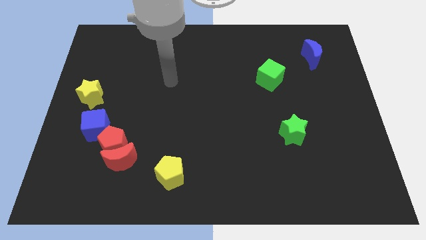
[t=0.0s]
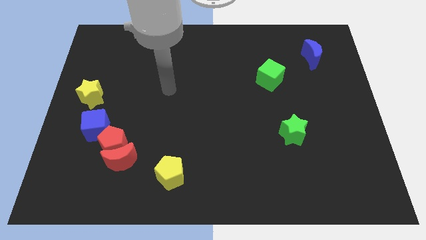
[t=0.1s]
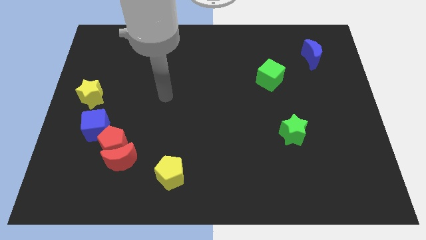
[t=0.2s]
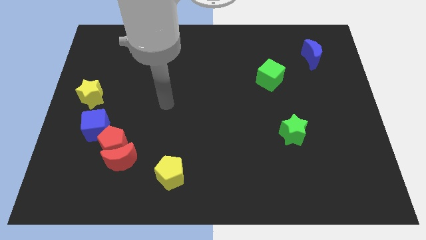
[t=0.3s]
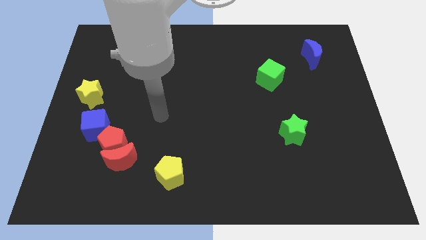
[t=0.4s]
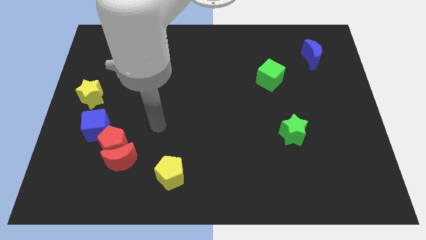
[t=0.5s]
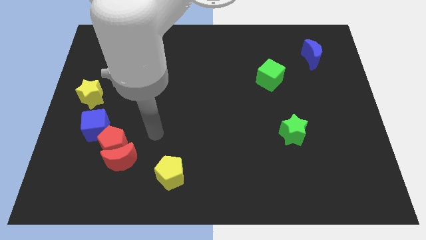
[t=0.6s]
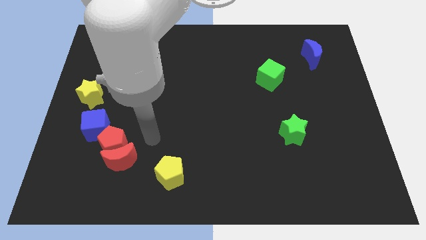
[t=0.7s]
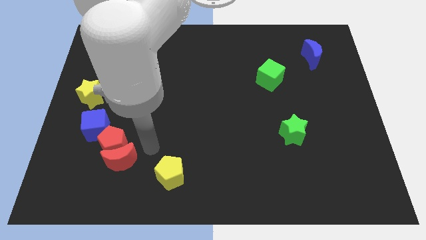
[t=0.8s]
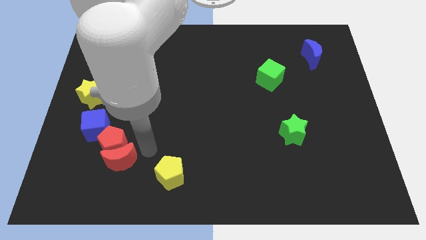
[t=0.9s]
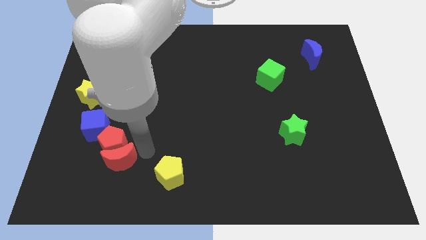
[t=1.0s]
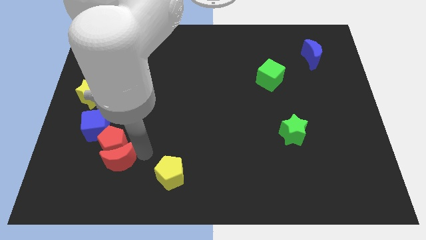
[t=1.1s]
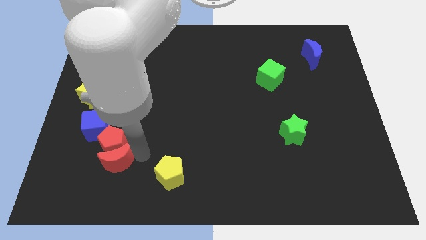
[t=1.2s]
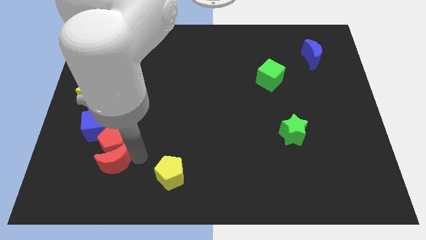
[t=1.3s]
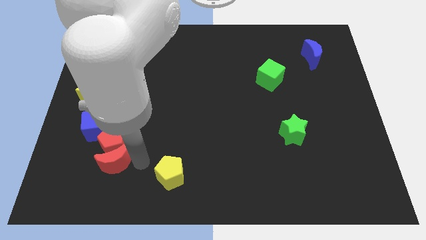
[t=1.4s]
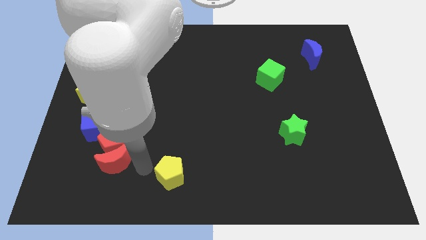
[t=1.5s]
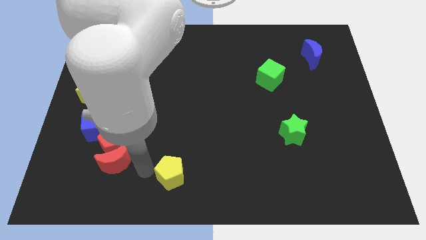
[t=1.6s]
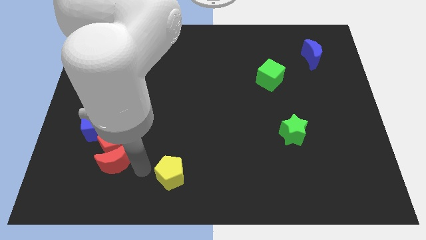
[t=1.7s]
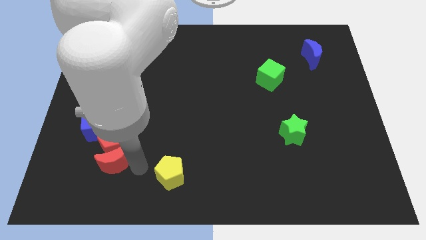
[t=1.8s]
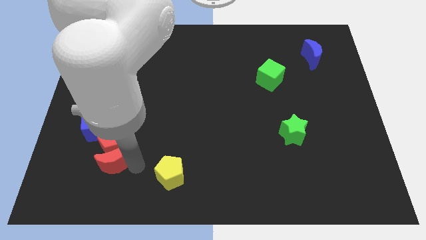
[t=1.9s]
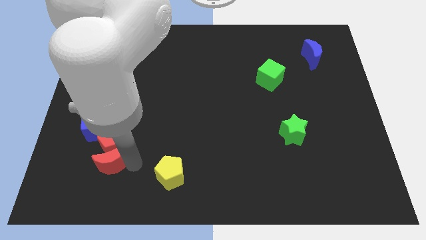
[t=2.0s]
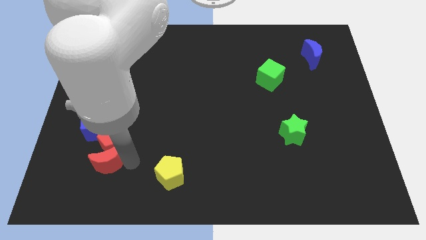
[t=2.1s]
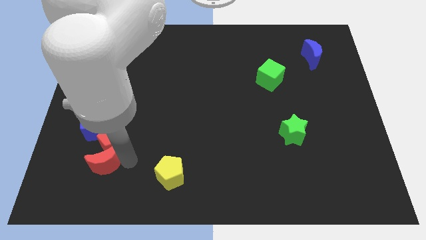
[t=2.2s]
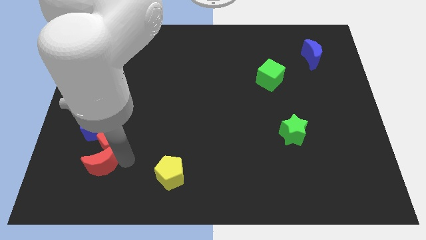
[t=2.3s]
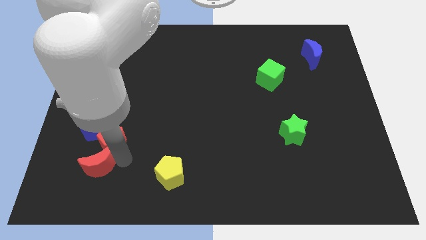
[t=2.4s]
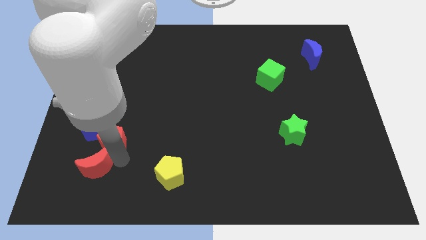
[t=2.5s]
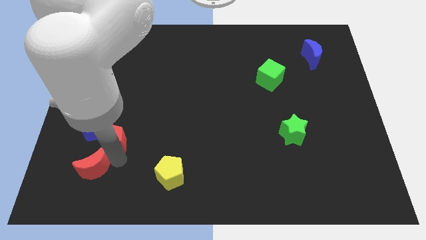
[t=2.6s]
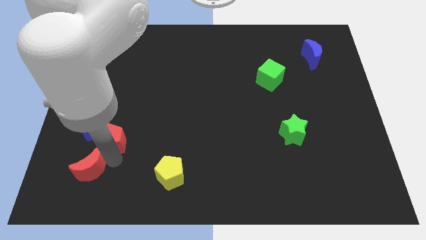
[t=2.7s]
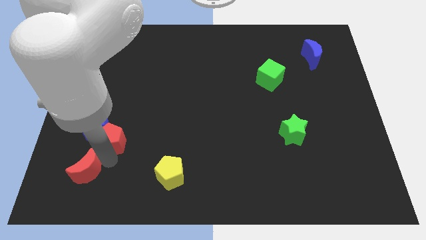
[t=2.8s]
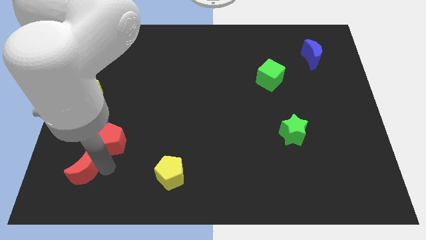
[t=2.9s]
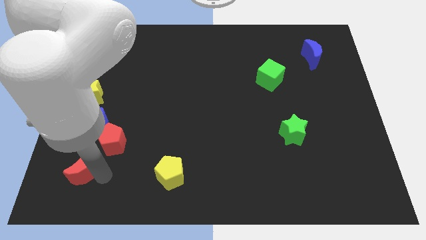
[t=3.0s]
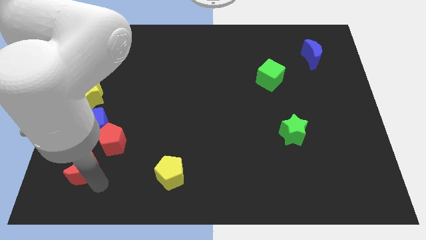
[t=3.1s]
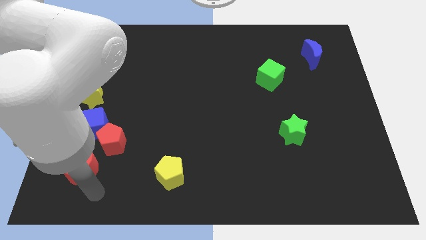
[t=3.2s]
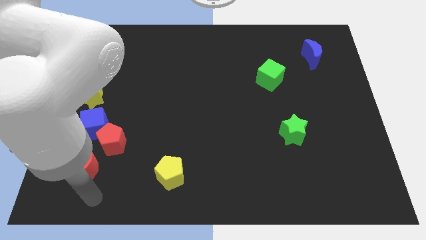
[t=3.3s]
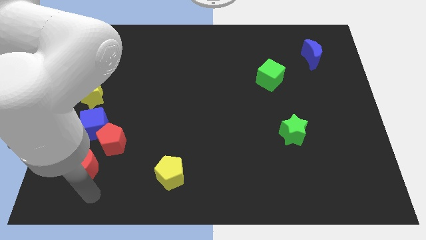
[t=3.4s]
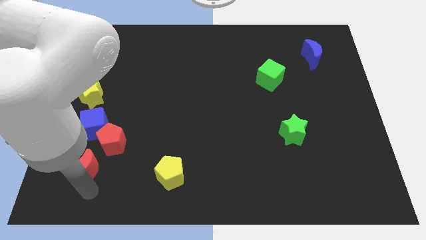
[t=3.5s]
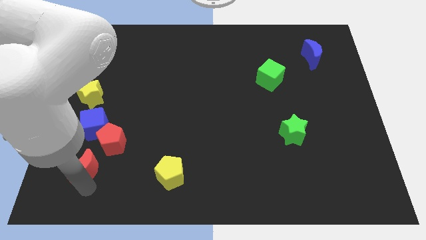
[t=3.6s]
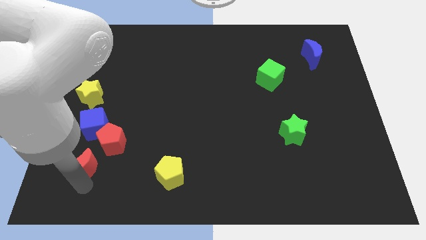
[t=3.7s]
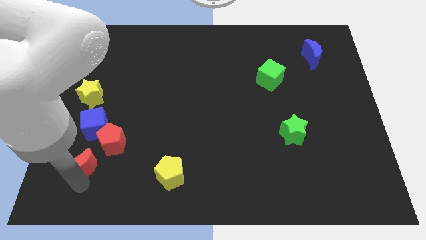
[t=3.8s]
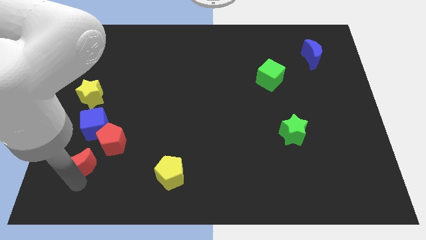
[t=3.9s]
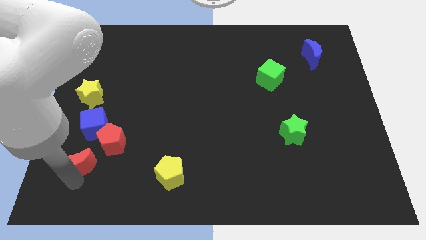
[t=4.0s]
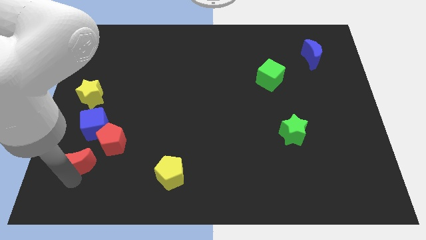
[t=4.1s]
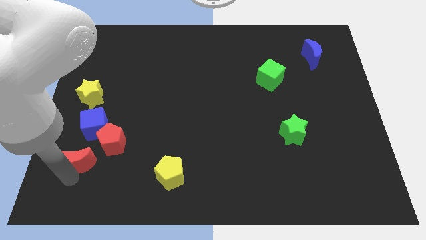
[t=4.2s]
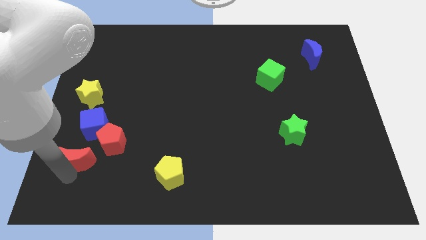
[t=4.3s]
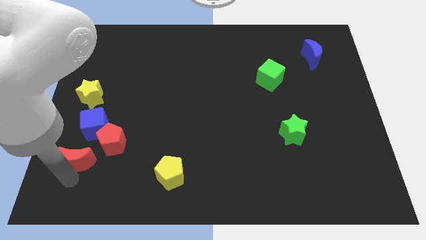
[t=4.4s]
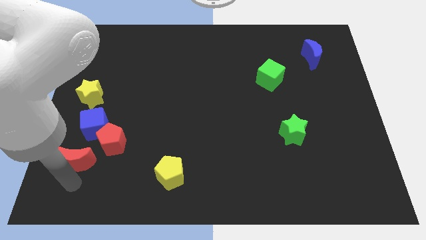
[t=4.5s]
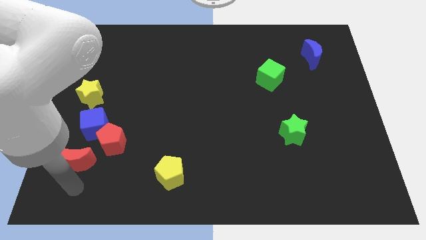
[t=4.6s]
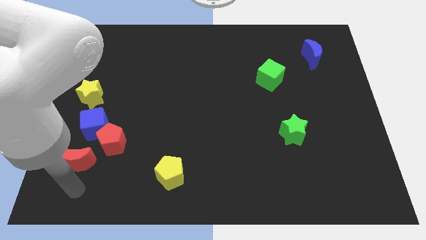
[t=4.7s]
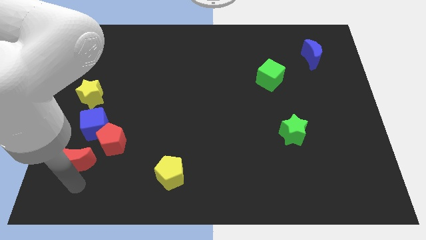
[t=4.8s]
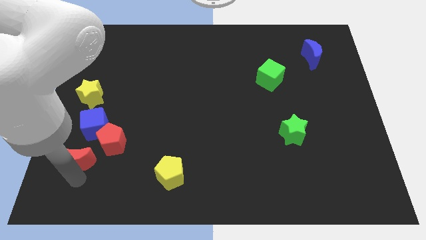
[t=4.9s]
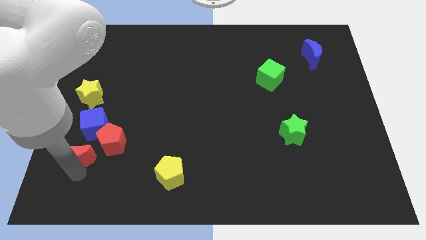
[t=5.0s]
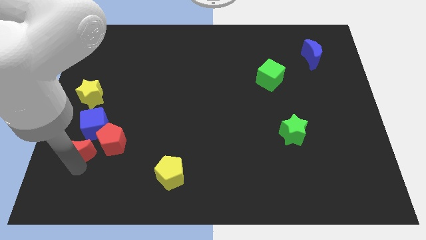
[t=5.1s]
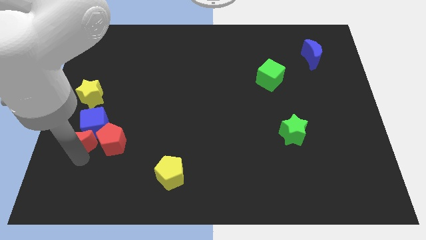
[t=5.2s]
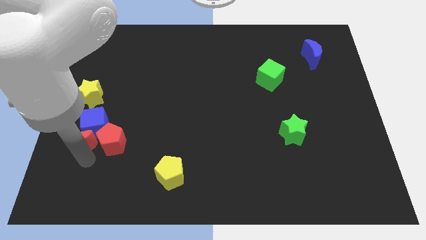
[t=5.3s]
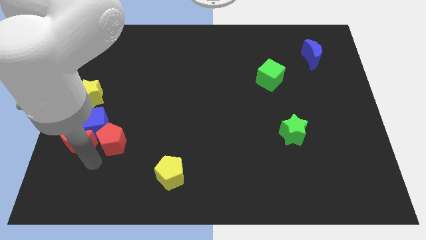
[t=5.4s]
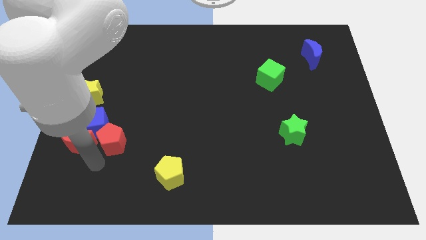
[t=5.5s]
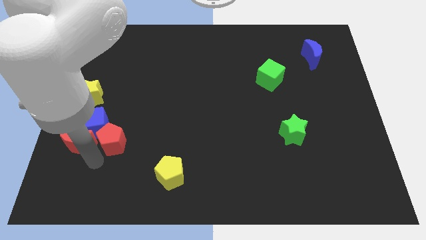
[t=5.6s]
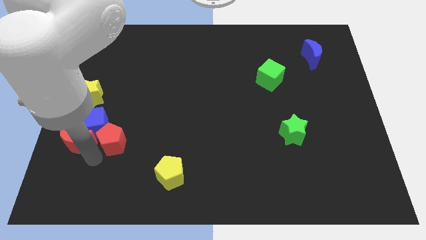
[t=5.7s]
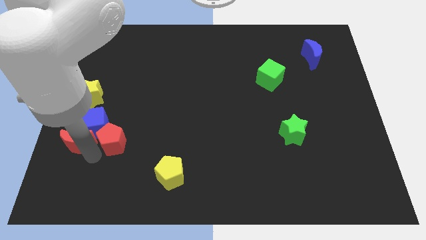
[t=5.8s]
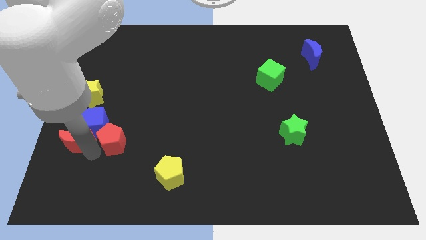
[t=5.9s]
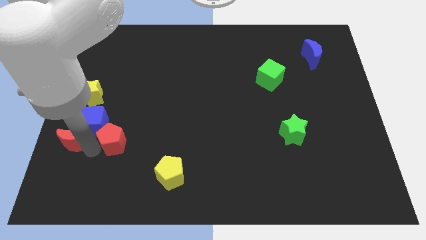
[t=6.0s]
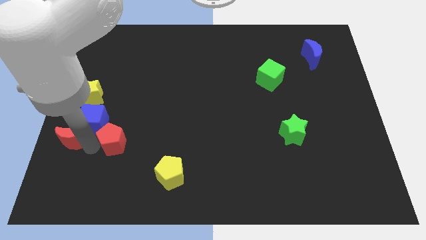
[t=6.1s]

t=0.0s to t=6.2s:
push the red moon to the center left

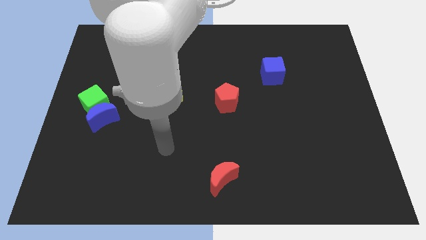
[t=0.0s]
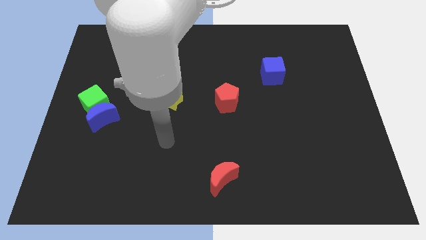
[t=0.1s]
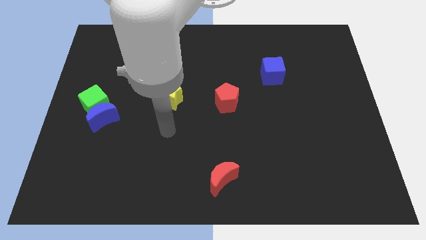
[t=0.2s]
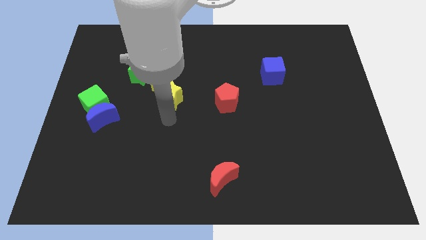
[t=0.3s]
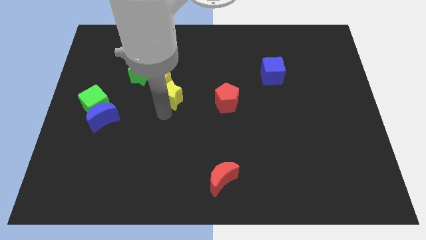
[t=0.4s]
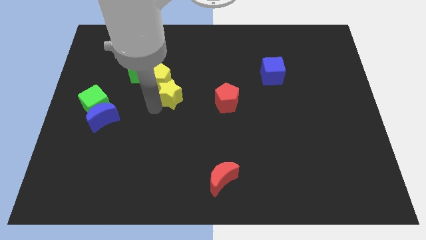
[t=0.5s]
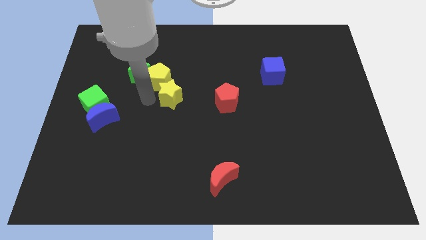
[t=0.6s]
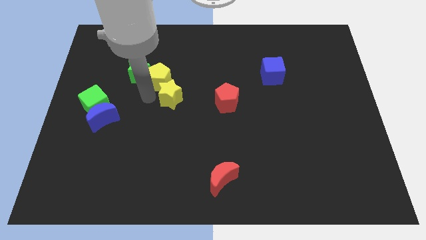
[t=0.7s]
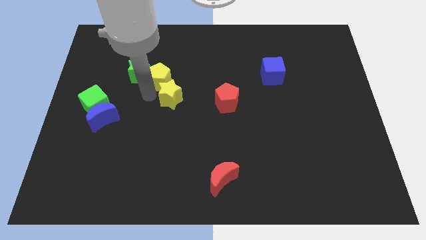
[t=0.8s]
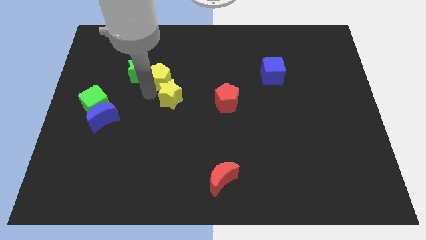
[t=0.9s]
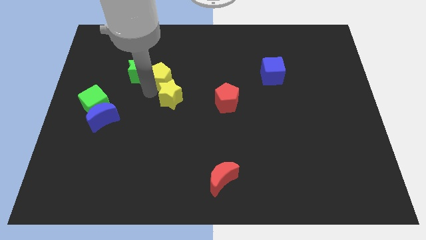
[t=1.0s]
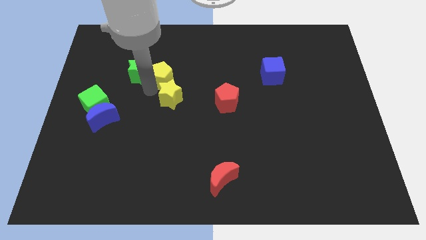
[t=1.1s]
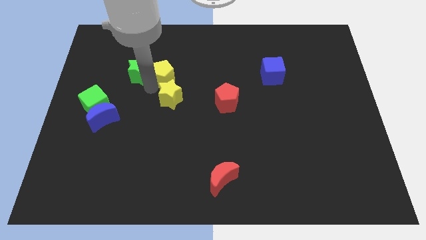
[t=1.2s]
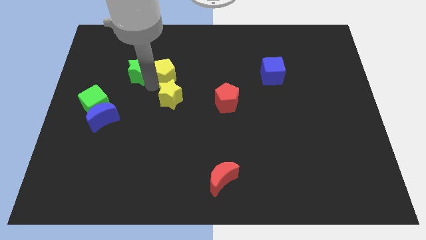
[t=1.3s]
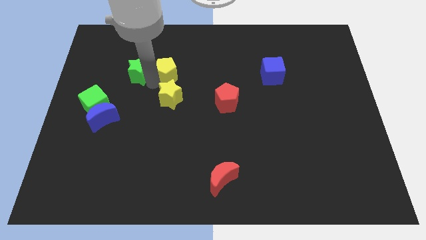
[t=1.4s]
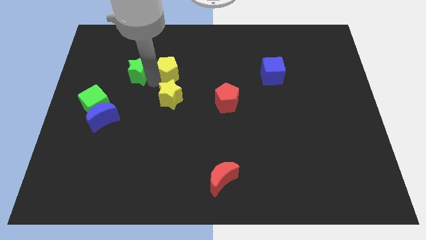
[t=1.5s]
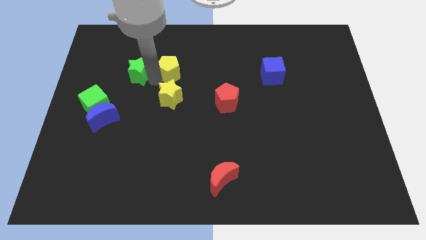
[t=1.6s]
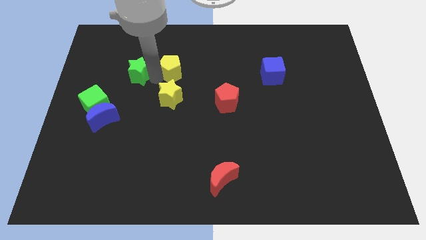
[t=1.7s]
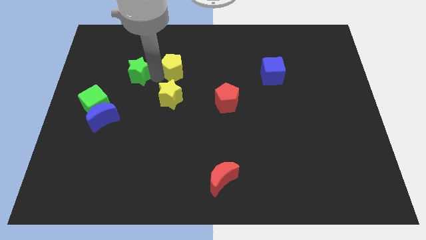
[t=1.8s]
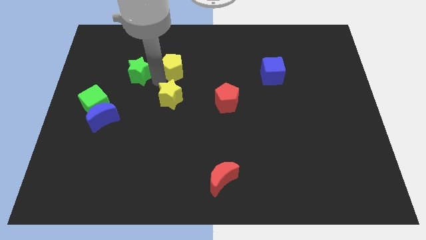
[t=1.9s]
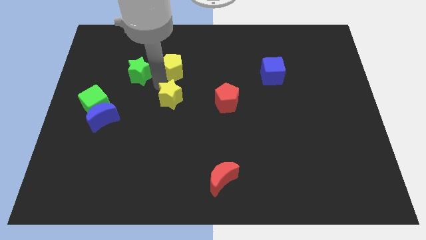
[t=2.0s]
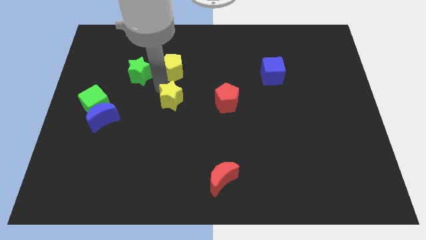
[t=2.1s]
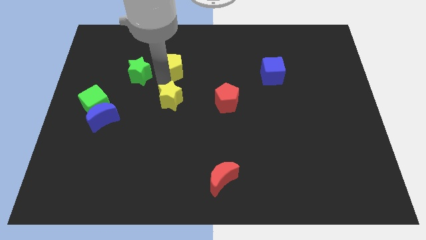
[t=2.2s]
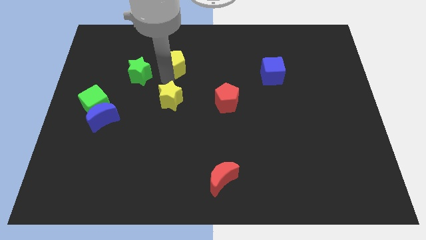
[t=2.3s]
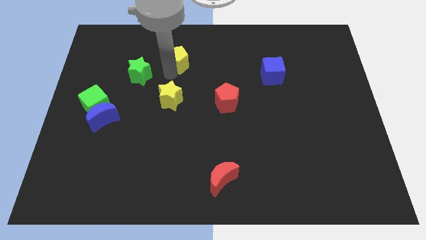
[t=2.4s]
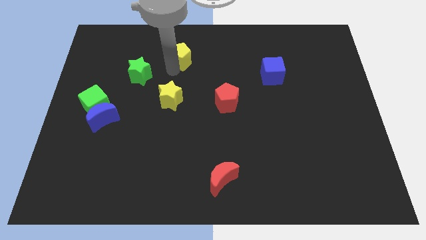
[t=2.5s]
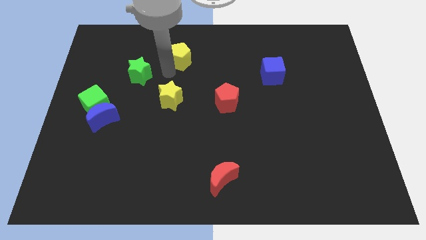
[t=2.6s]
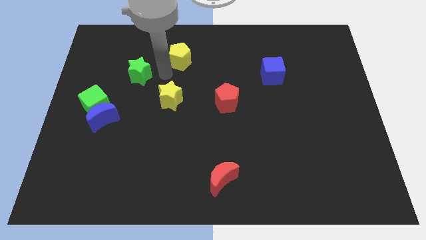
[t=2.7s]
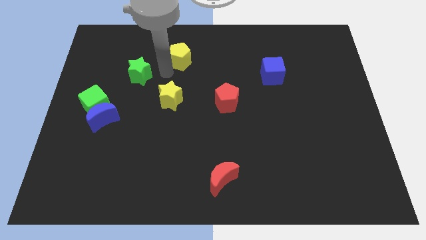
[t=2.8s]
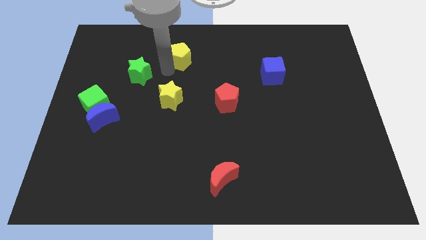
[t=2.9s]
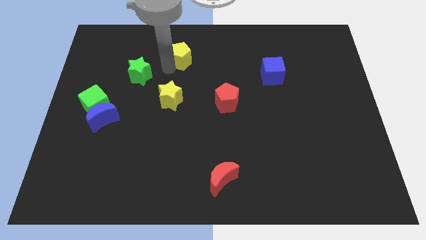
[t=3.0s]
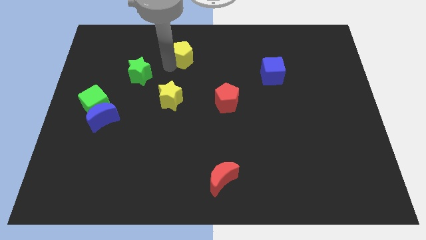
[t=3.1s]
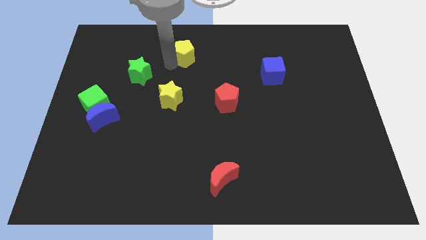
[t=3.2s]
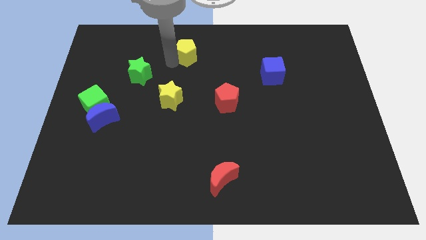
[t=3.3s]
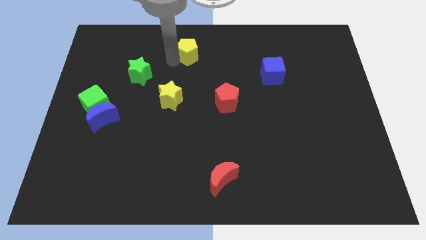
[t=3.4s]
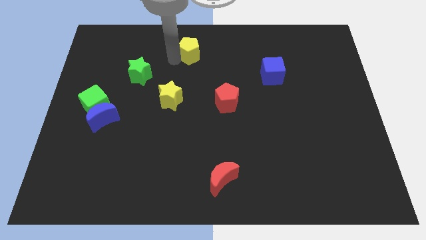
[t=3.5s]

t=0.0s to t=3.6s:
put the yellow pentagon to the towards your base
